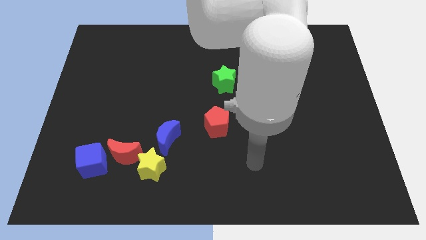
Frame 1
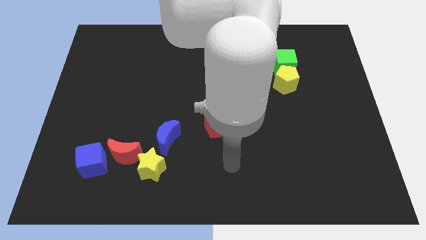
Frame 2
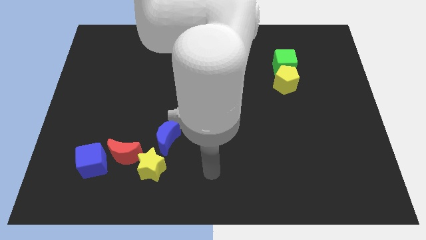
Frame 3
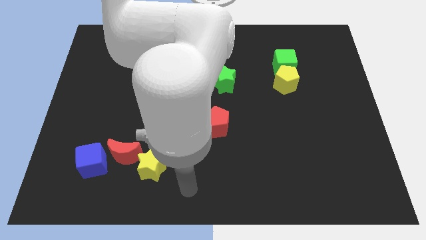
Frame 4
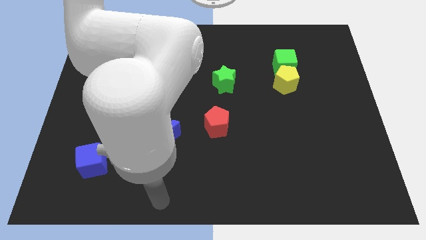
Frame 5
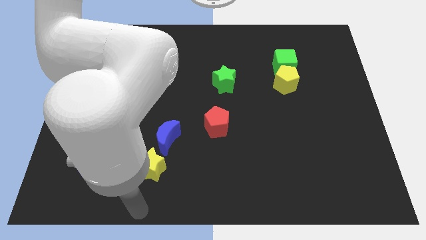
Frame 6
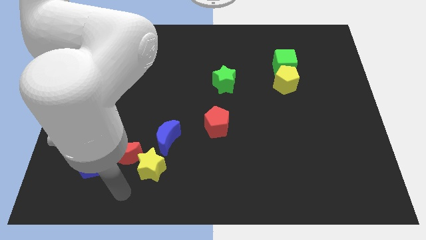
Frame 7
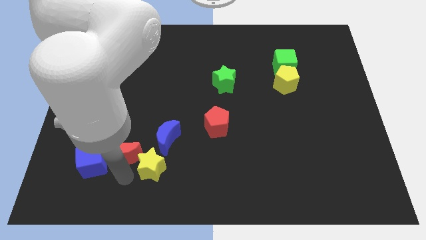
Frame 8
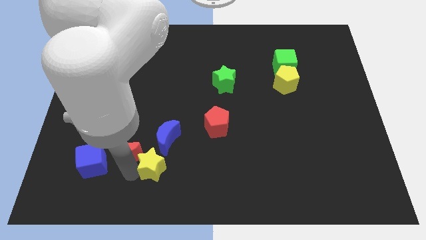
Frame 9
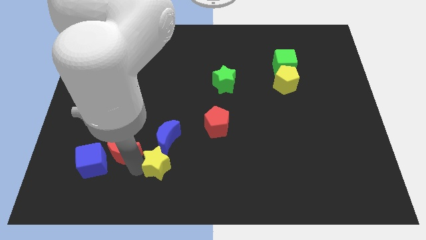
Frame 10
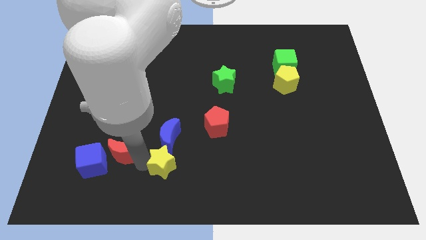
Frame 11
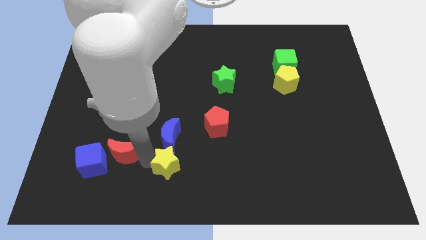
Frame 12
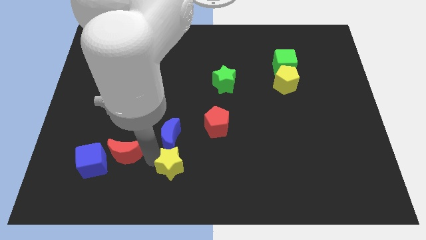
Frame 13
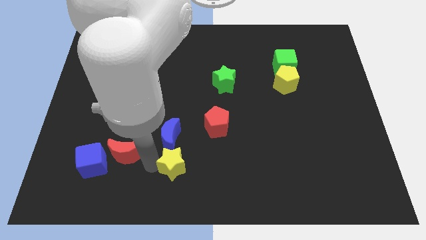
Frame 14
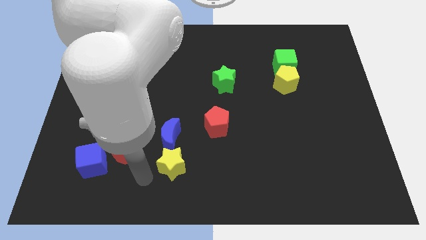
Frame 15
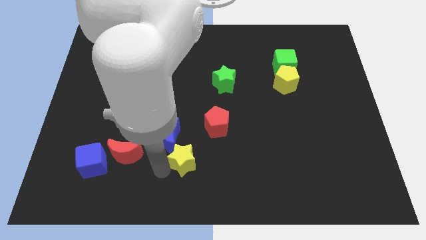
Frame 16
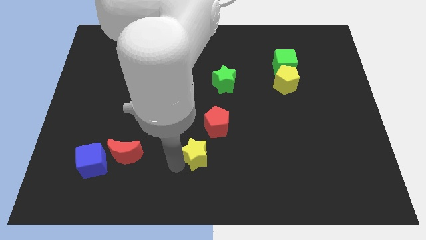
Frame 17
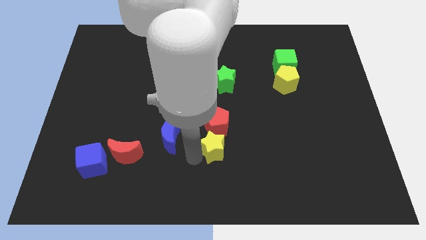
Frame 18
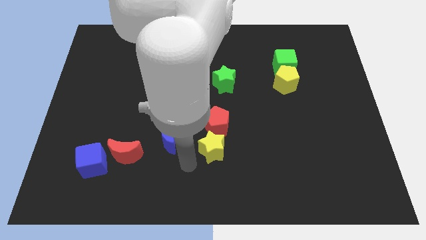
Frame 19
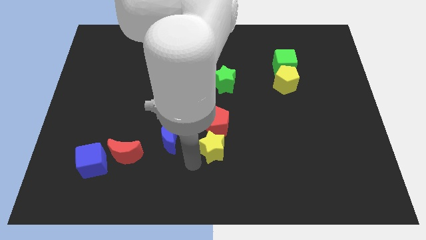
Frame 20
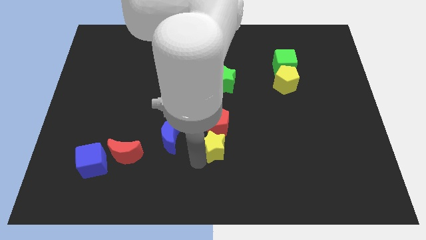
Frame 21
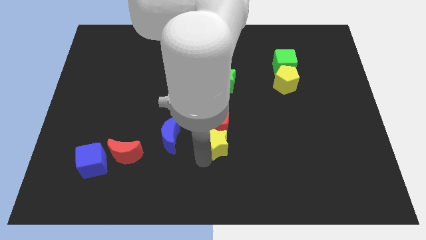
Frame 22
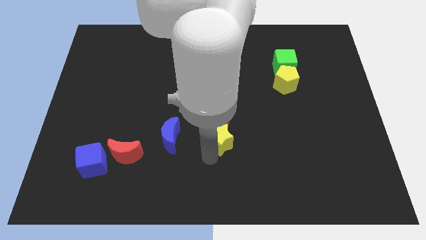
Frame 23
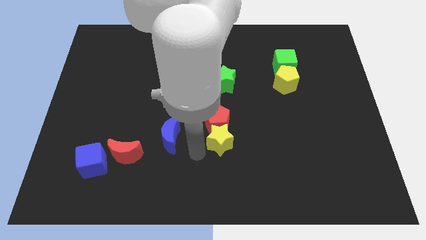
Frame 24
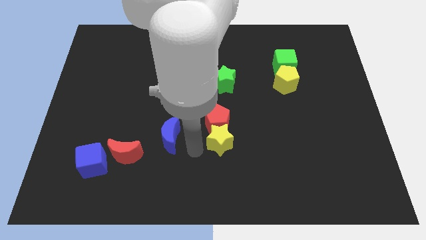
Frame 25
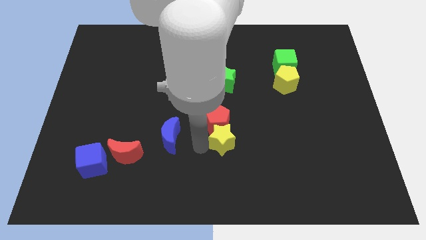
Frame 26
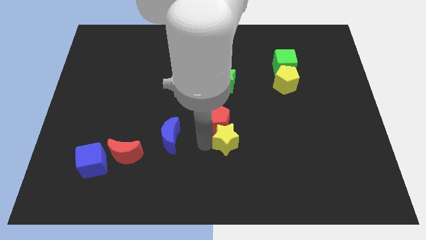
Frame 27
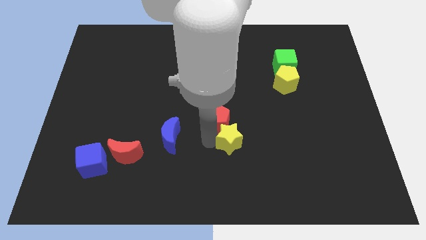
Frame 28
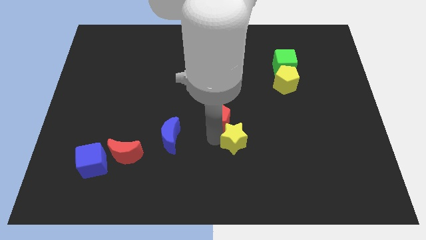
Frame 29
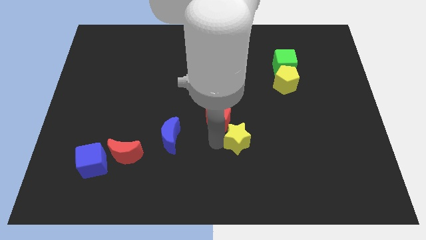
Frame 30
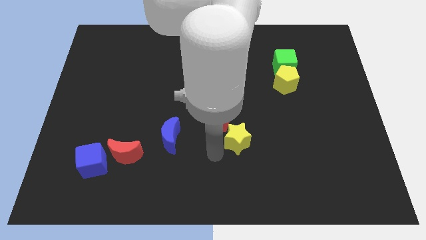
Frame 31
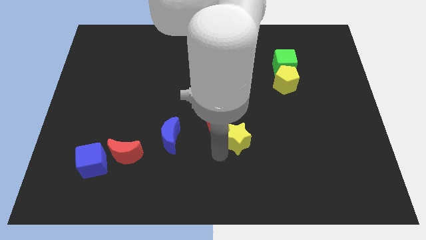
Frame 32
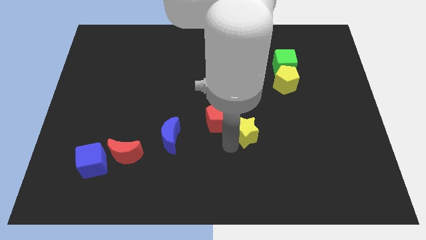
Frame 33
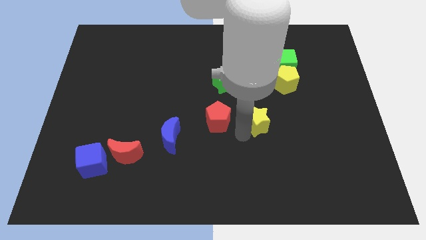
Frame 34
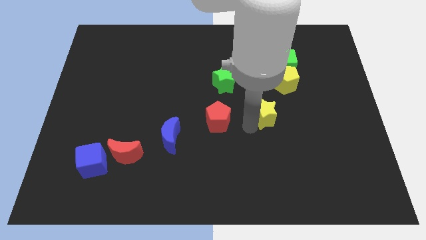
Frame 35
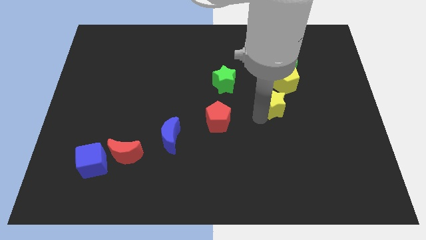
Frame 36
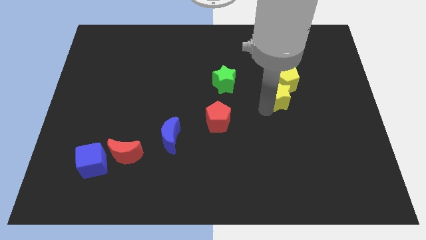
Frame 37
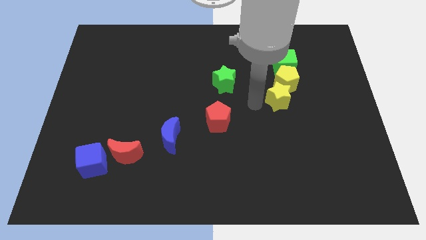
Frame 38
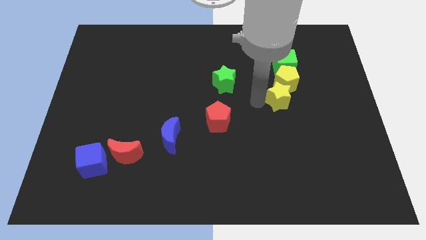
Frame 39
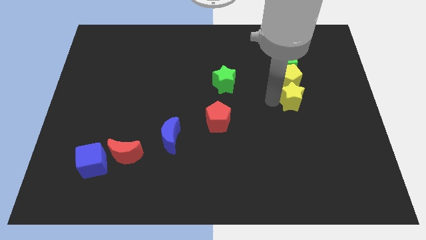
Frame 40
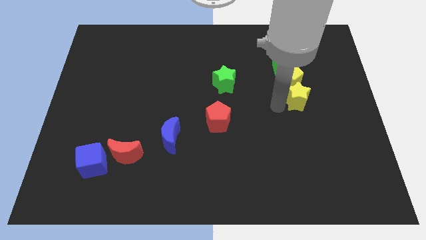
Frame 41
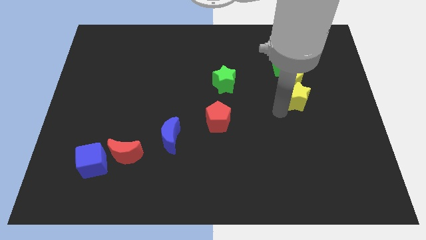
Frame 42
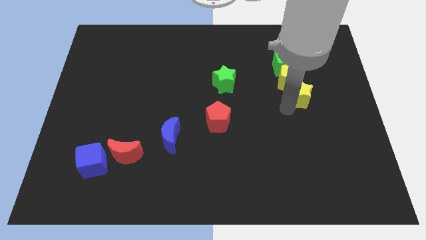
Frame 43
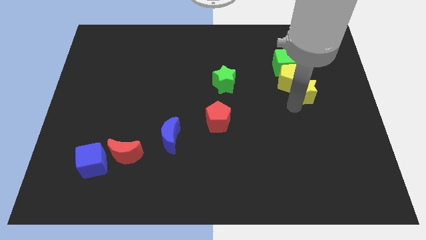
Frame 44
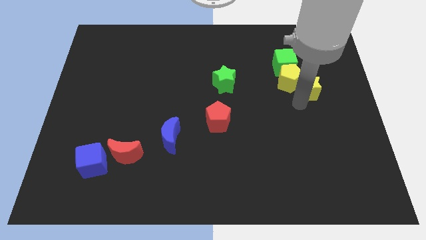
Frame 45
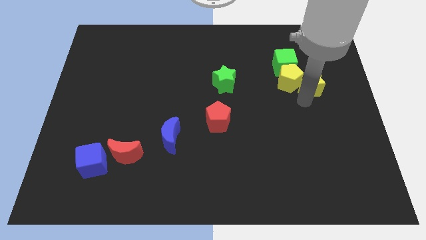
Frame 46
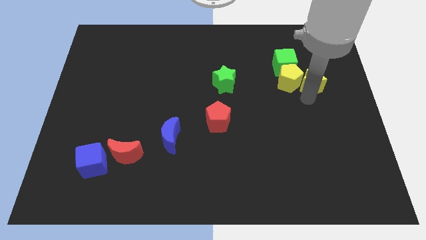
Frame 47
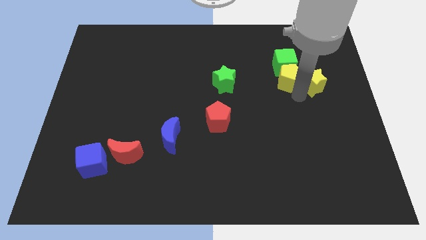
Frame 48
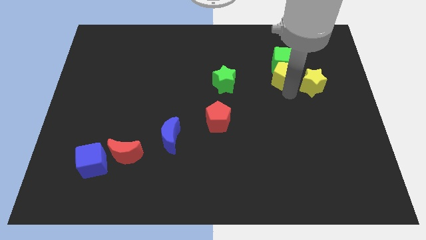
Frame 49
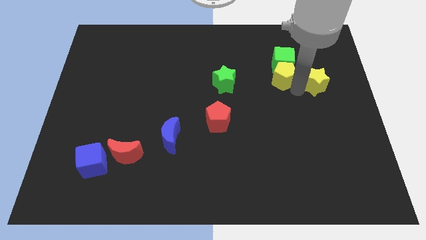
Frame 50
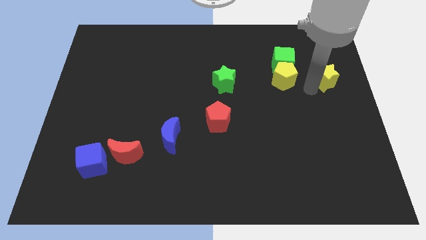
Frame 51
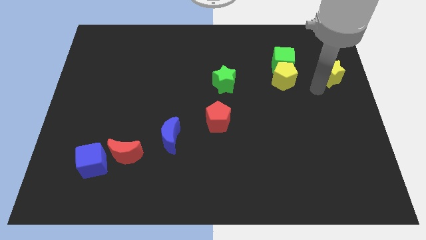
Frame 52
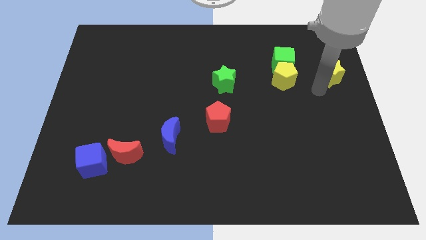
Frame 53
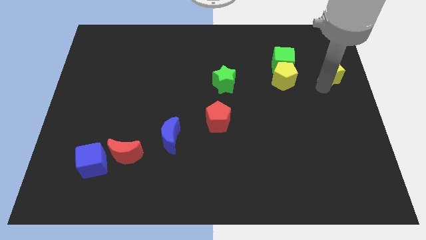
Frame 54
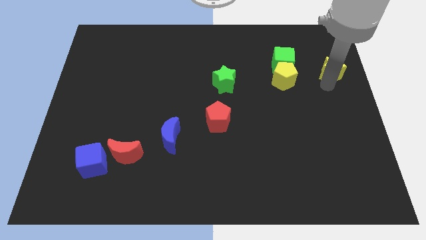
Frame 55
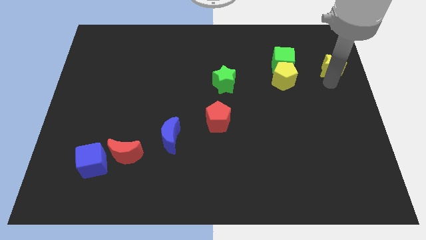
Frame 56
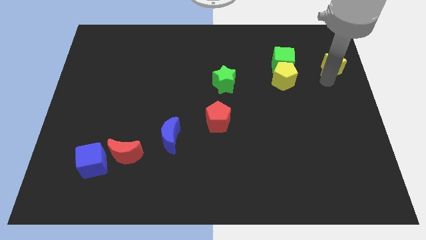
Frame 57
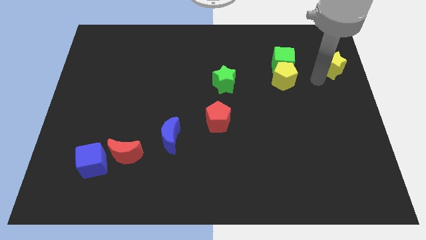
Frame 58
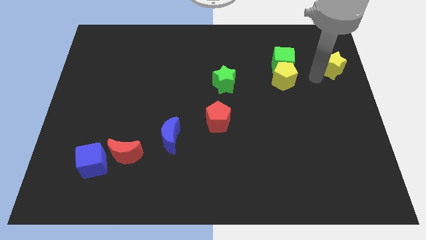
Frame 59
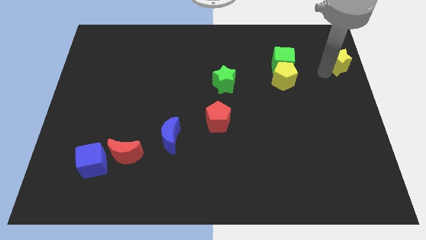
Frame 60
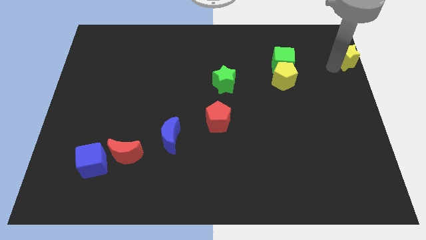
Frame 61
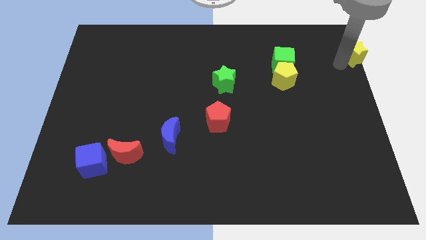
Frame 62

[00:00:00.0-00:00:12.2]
put the yellow star to the top right of the board
